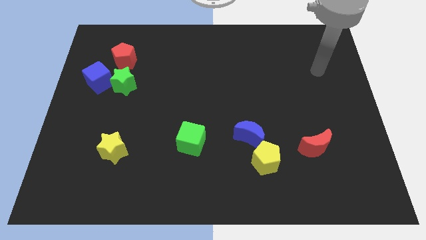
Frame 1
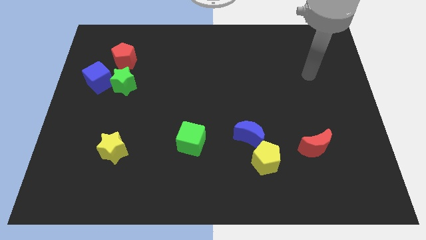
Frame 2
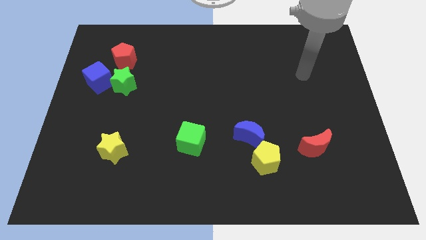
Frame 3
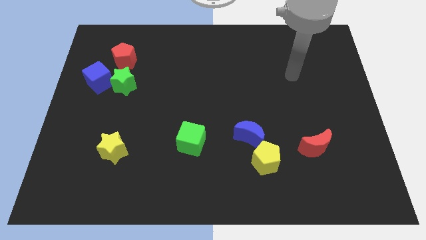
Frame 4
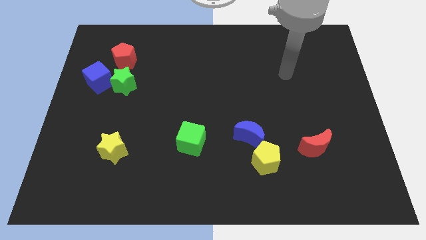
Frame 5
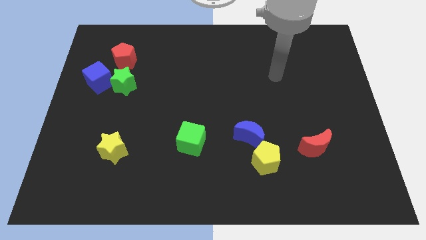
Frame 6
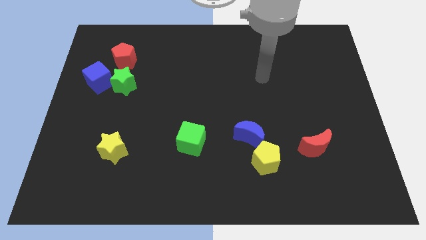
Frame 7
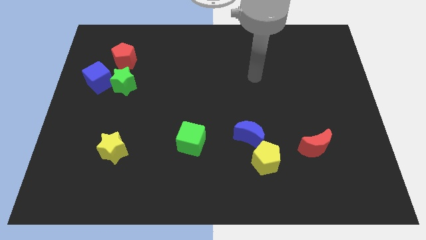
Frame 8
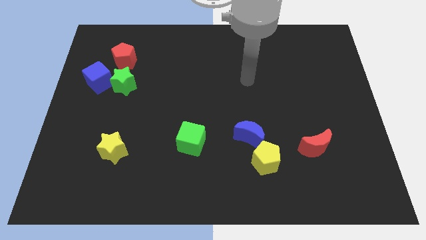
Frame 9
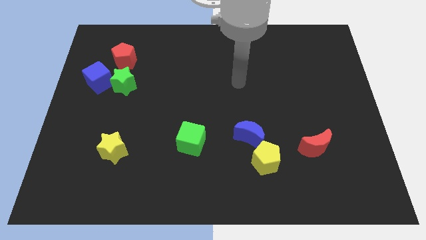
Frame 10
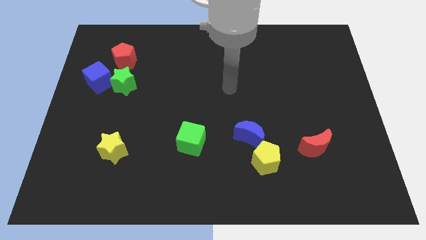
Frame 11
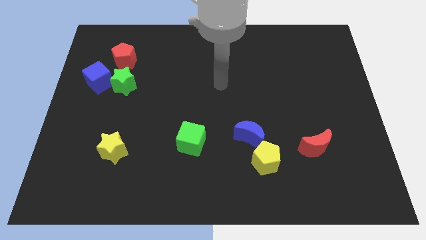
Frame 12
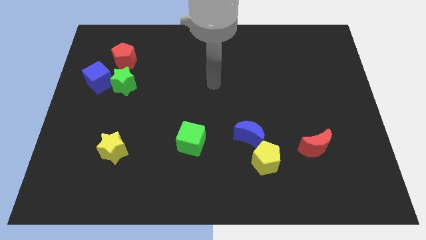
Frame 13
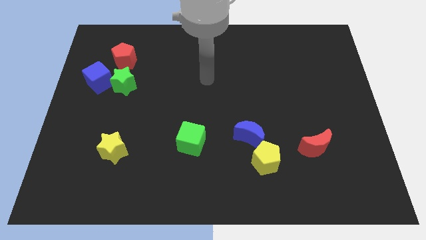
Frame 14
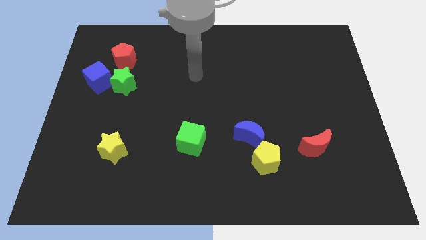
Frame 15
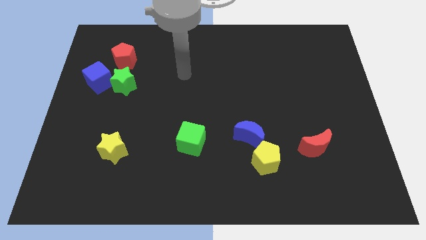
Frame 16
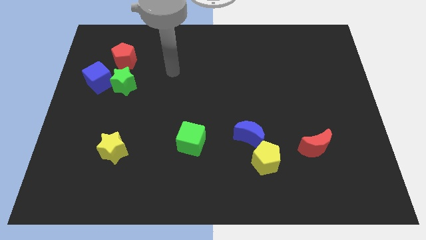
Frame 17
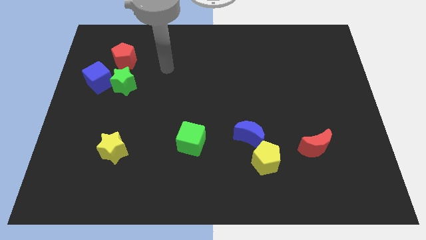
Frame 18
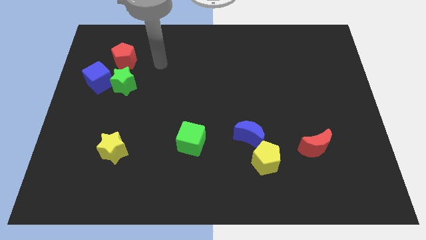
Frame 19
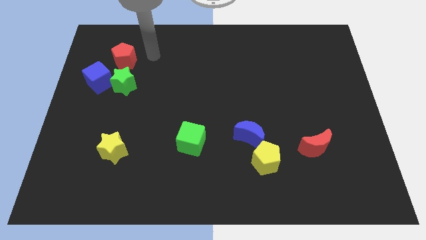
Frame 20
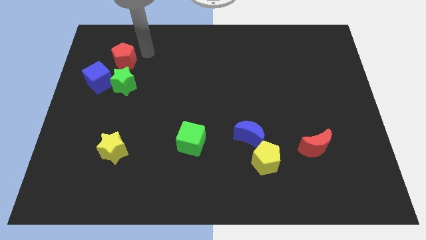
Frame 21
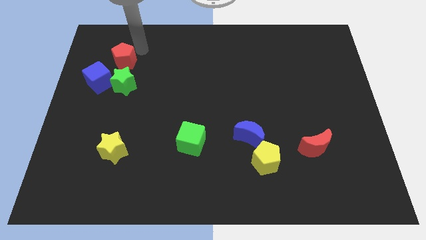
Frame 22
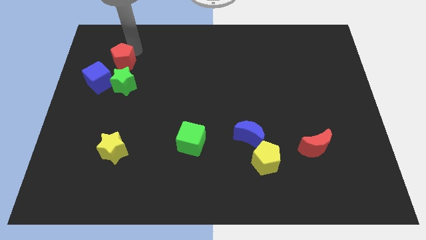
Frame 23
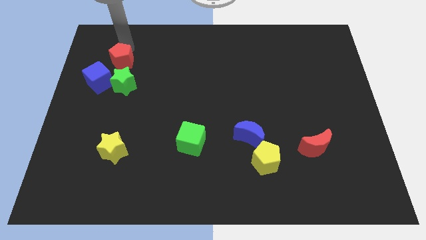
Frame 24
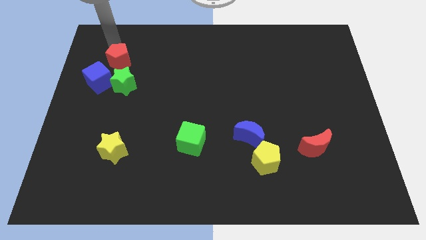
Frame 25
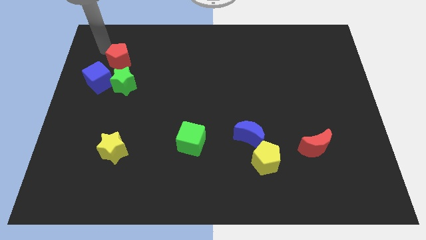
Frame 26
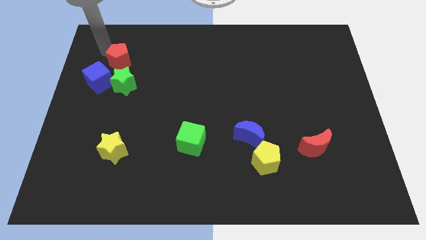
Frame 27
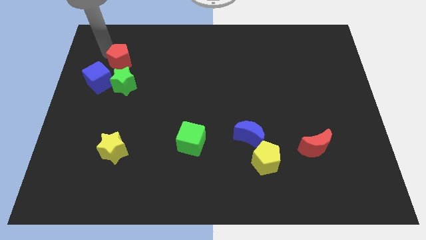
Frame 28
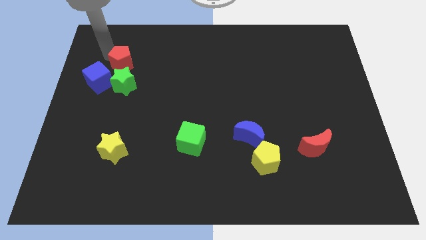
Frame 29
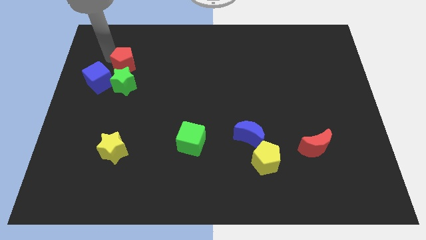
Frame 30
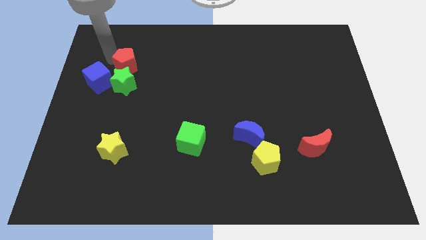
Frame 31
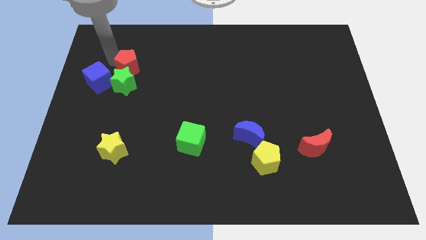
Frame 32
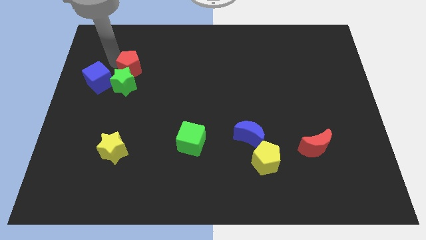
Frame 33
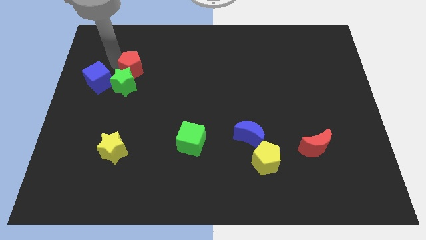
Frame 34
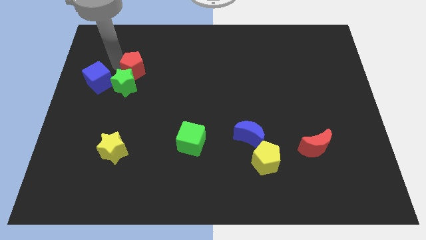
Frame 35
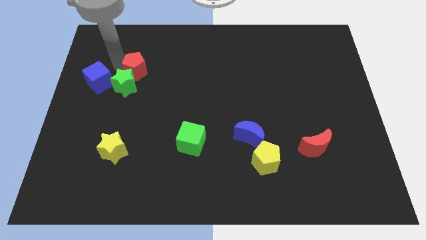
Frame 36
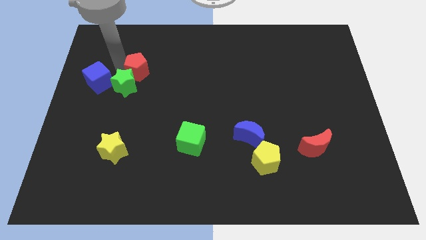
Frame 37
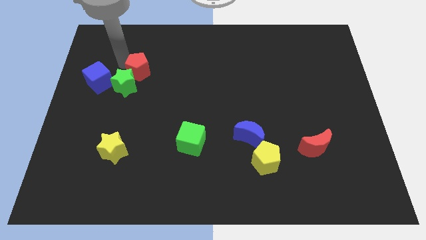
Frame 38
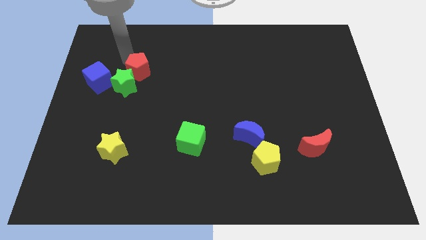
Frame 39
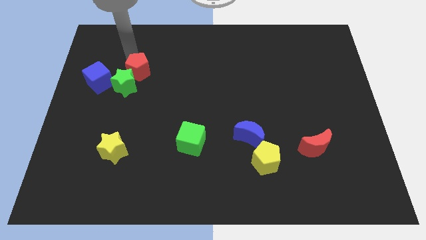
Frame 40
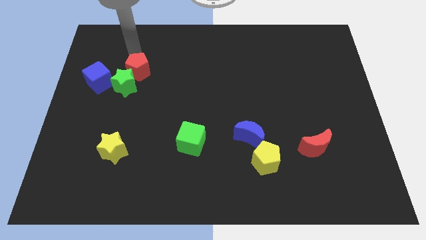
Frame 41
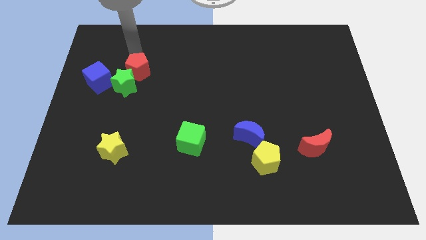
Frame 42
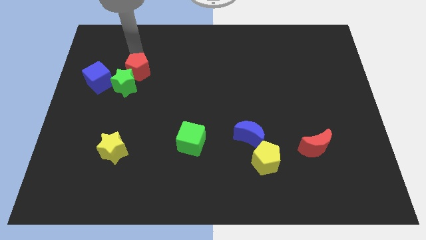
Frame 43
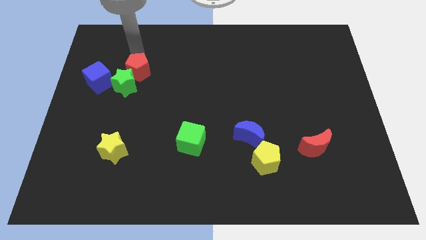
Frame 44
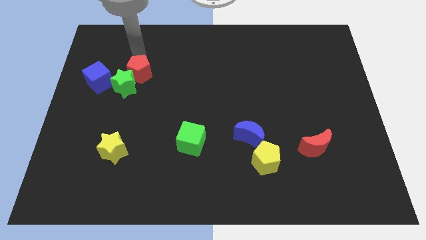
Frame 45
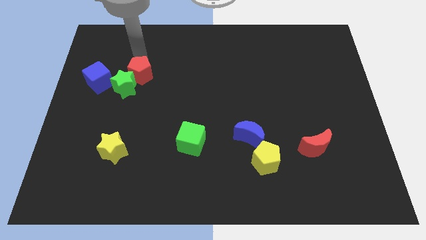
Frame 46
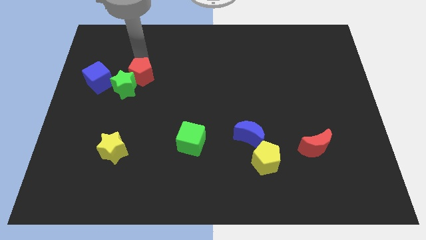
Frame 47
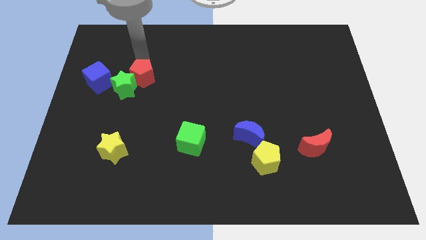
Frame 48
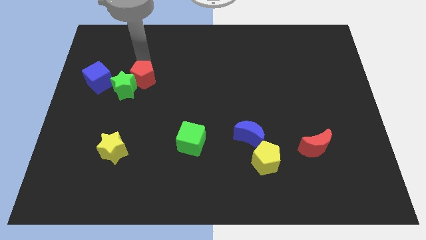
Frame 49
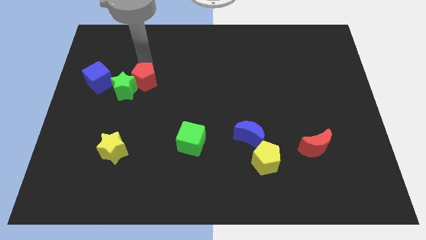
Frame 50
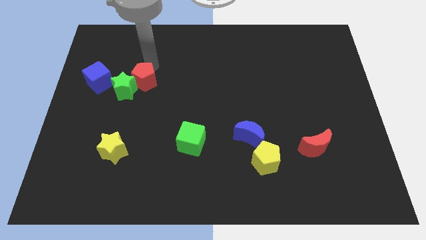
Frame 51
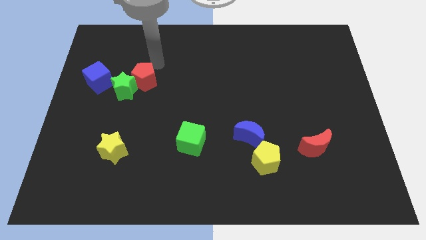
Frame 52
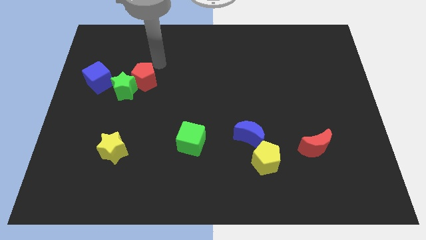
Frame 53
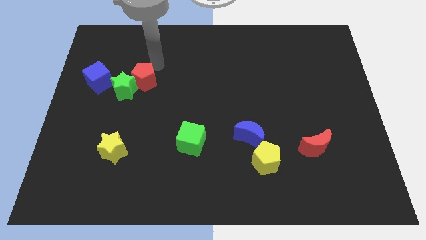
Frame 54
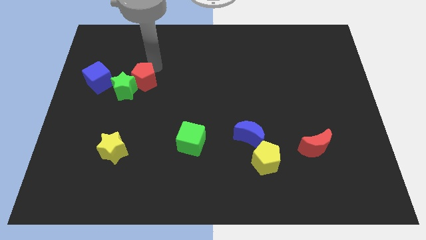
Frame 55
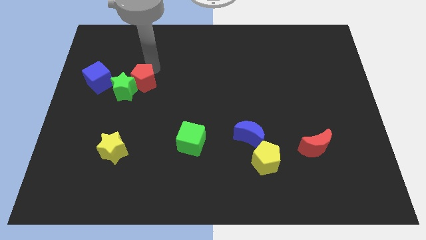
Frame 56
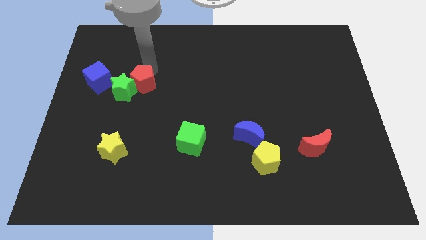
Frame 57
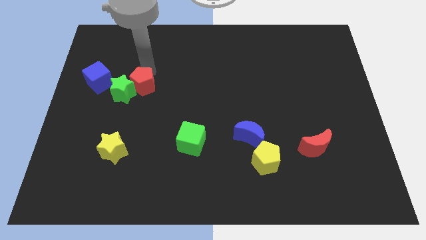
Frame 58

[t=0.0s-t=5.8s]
push the red pentagon a little bit down

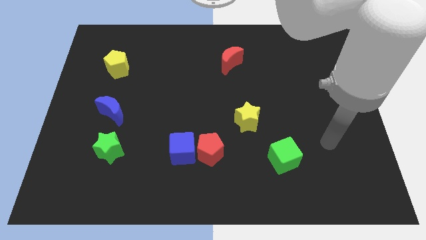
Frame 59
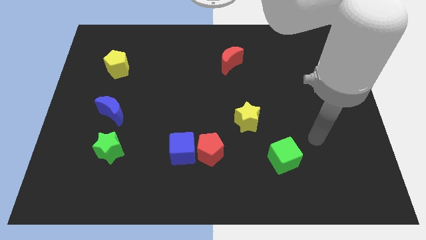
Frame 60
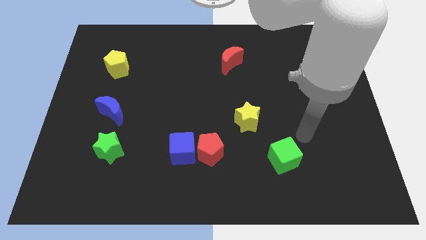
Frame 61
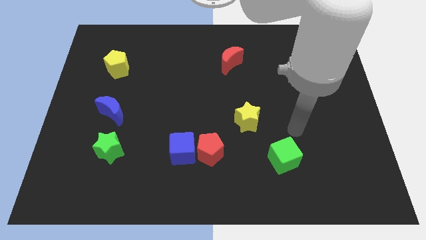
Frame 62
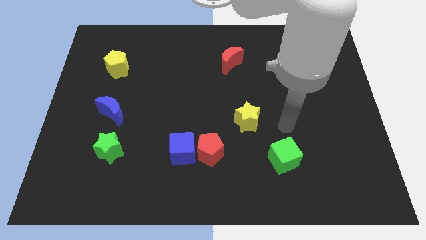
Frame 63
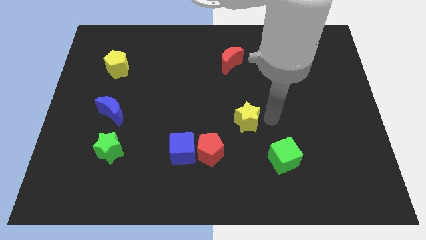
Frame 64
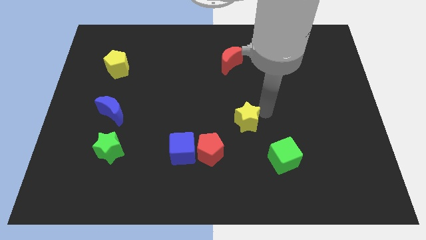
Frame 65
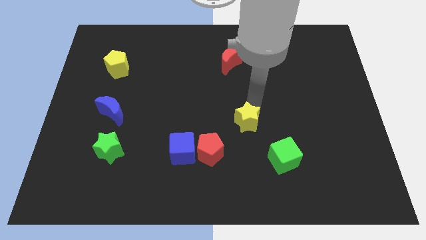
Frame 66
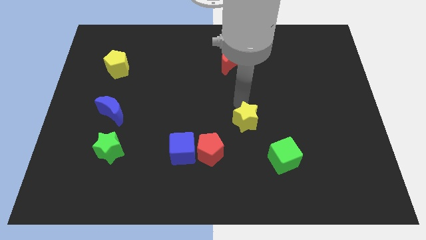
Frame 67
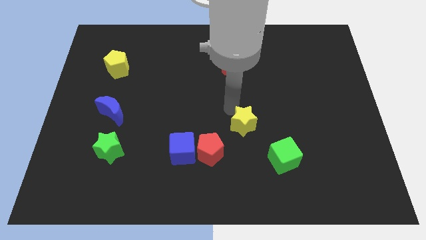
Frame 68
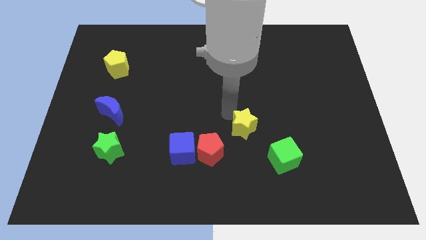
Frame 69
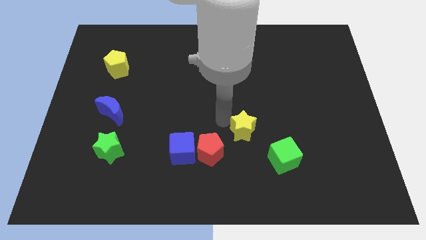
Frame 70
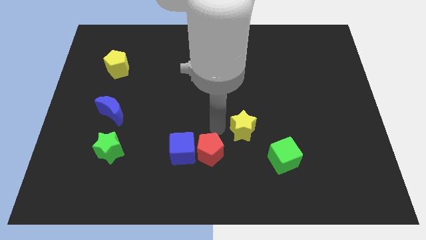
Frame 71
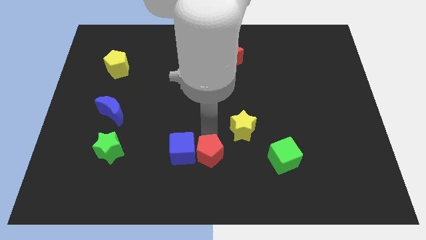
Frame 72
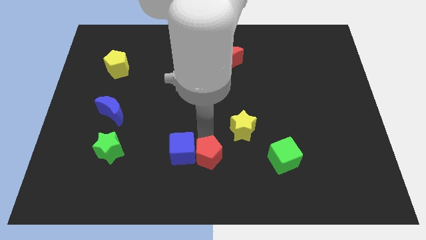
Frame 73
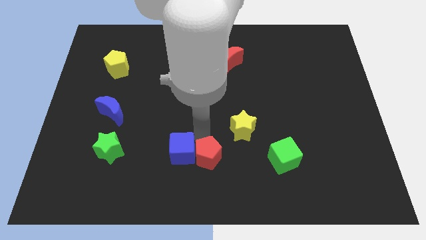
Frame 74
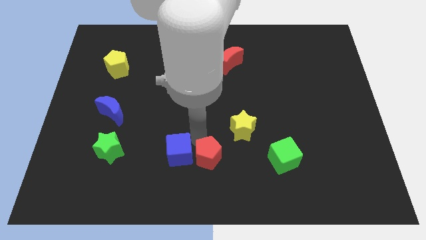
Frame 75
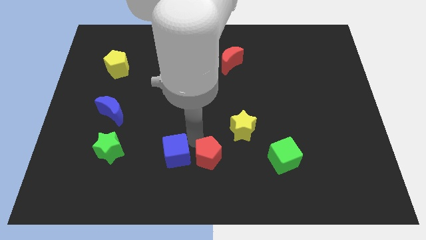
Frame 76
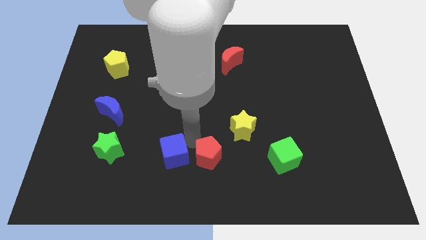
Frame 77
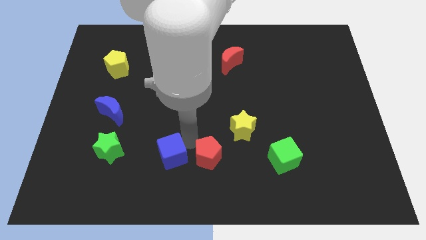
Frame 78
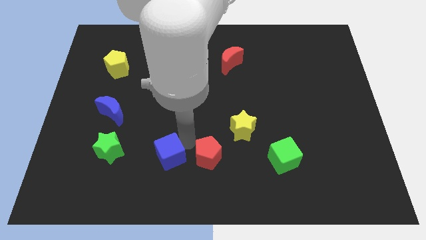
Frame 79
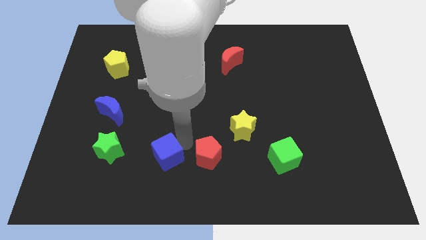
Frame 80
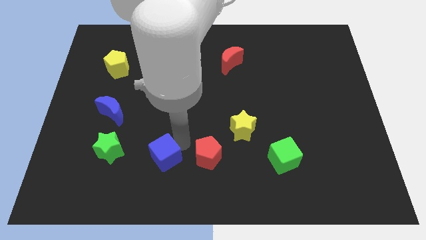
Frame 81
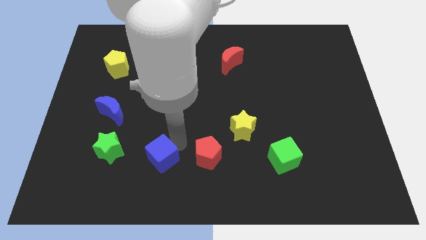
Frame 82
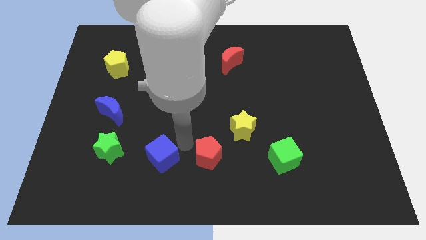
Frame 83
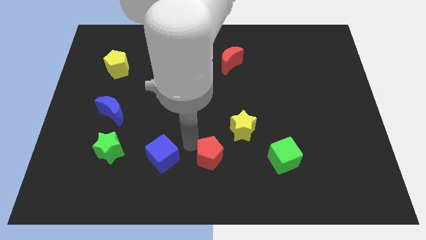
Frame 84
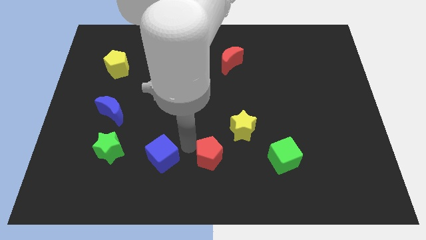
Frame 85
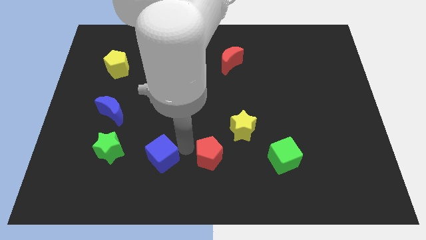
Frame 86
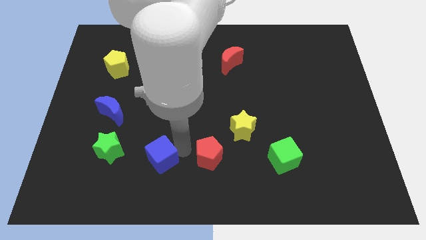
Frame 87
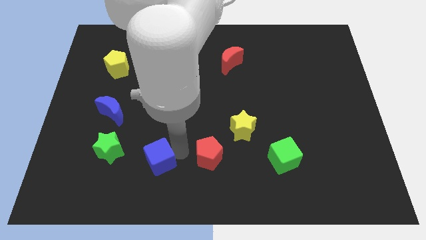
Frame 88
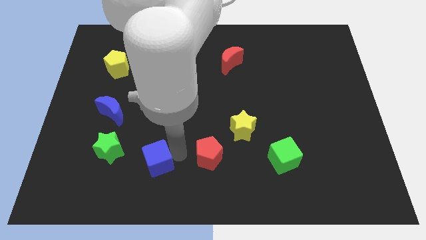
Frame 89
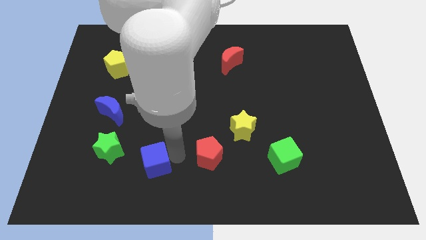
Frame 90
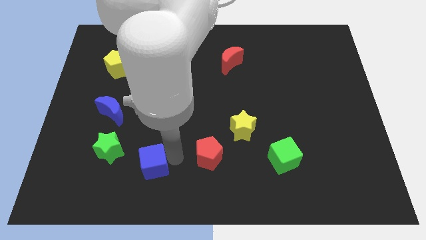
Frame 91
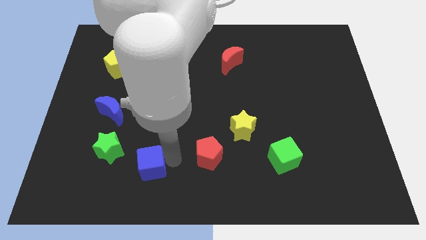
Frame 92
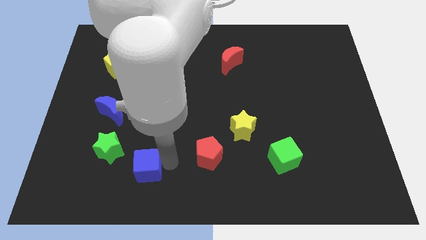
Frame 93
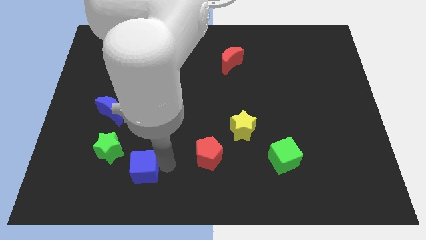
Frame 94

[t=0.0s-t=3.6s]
slide the blue cube a little to the left
